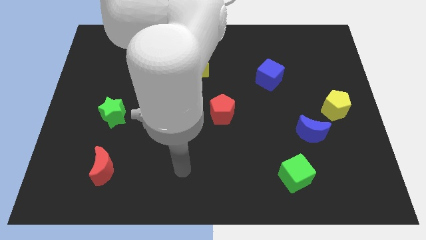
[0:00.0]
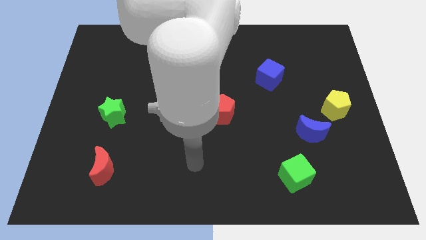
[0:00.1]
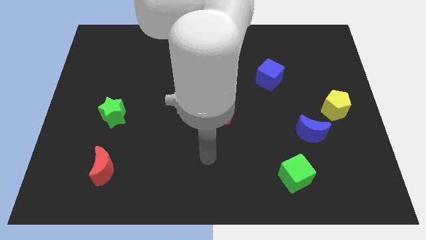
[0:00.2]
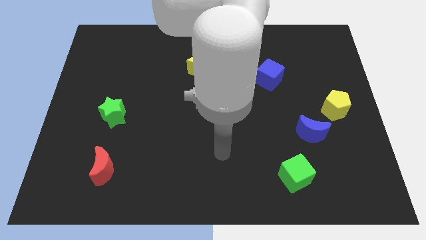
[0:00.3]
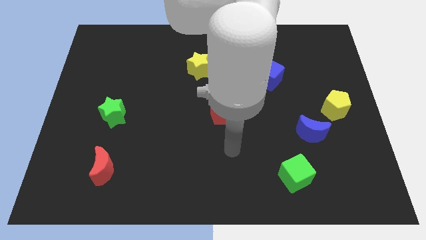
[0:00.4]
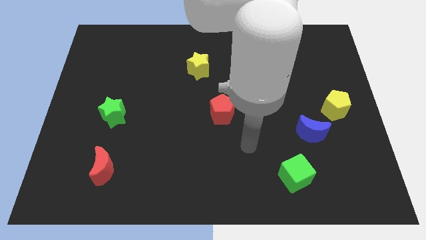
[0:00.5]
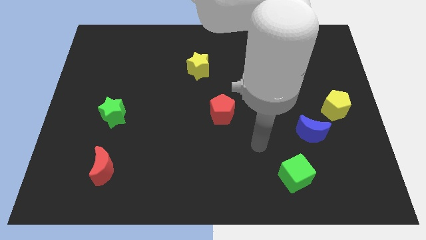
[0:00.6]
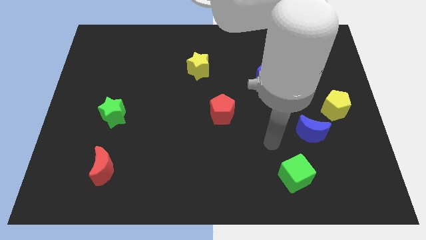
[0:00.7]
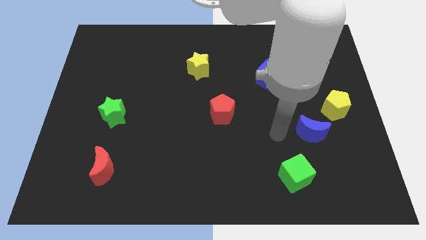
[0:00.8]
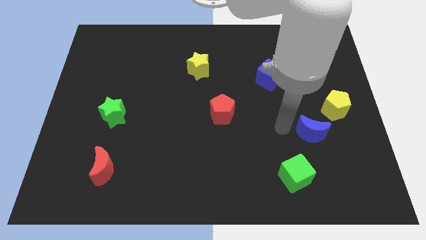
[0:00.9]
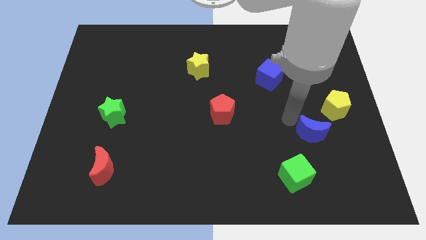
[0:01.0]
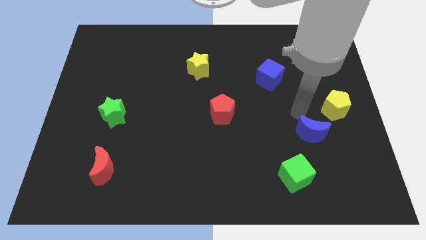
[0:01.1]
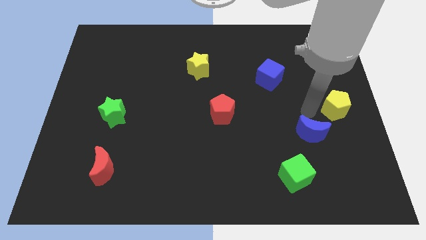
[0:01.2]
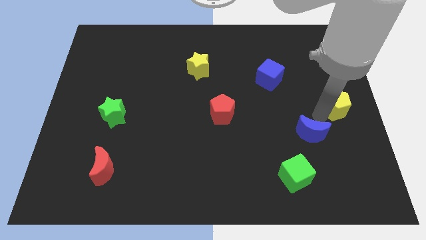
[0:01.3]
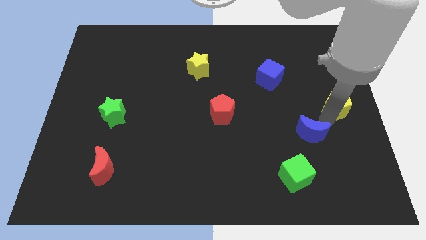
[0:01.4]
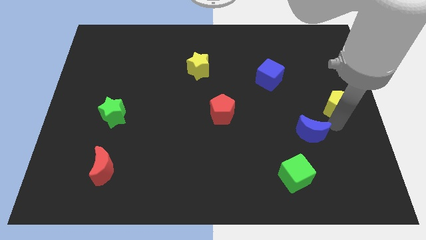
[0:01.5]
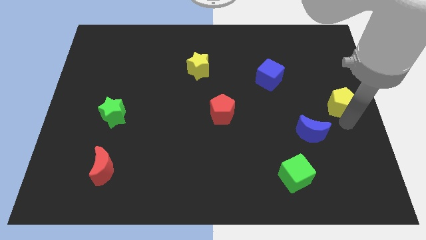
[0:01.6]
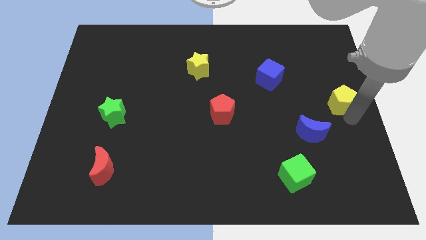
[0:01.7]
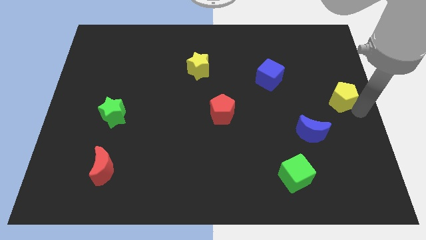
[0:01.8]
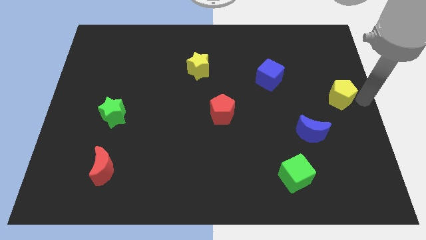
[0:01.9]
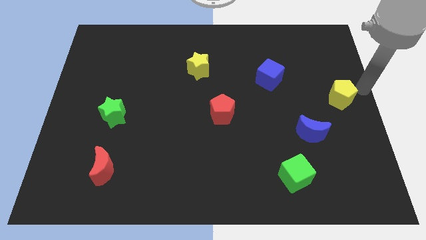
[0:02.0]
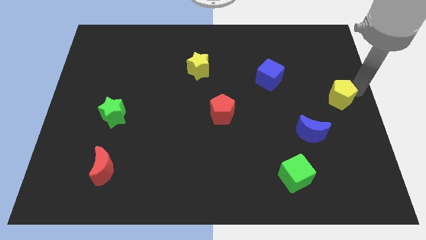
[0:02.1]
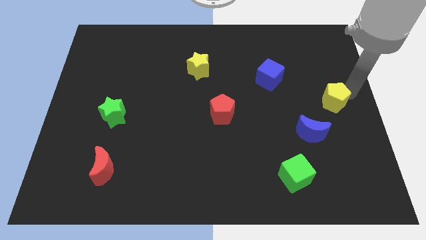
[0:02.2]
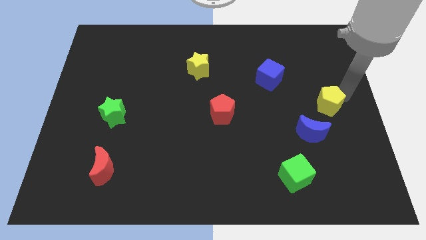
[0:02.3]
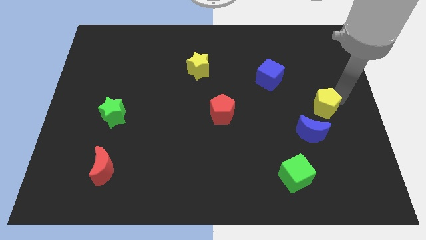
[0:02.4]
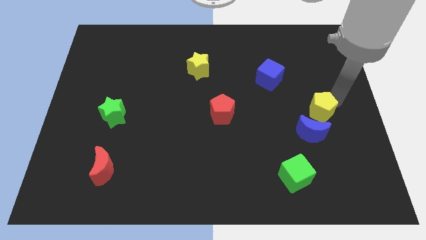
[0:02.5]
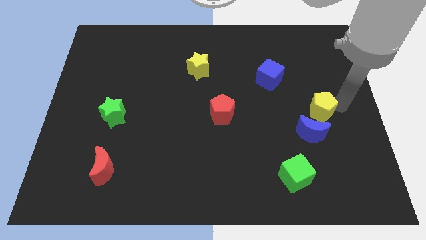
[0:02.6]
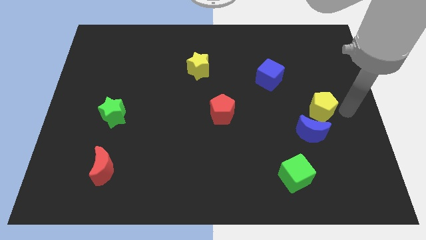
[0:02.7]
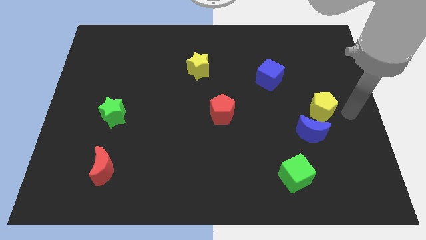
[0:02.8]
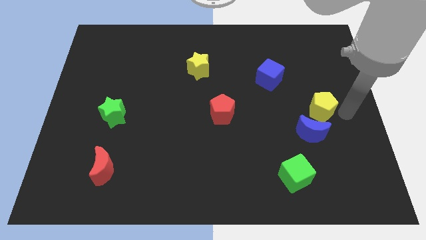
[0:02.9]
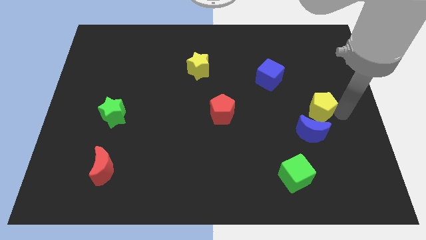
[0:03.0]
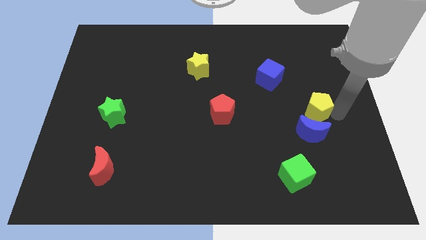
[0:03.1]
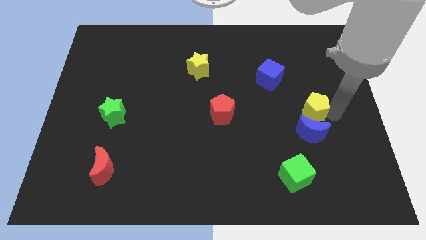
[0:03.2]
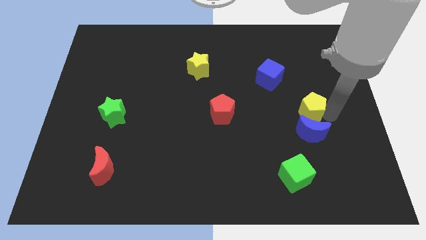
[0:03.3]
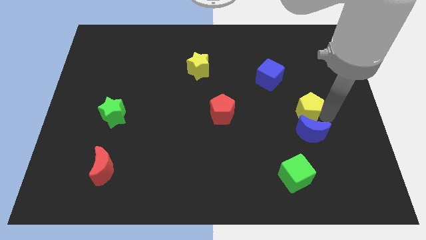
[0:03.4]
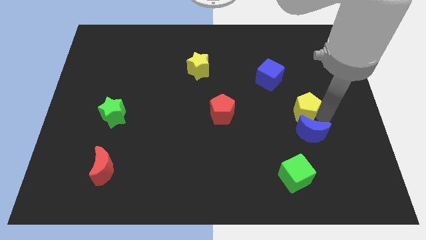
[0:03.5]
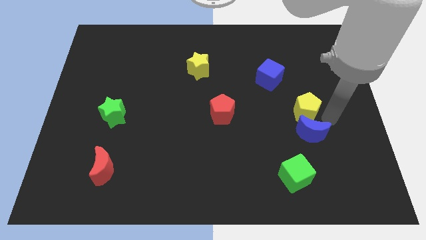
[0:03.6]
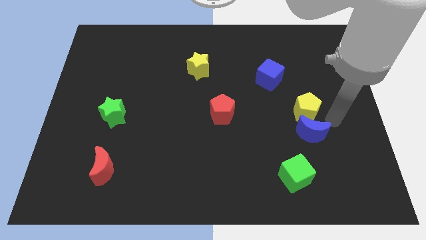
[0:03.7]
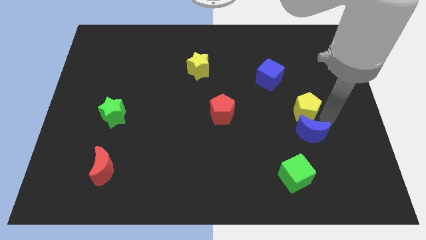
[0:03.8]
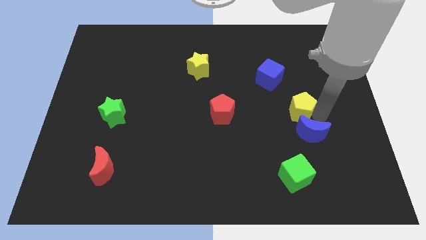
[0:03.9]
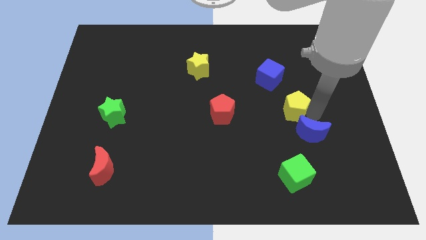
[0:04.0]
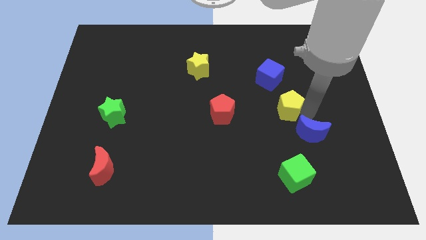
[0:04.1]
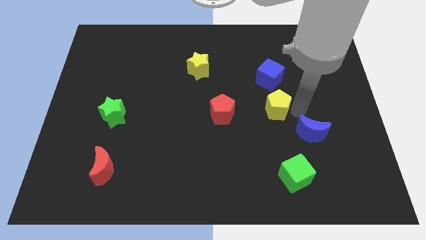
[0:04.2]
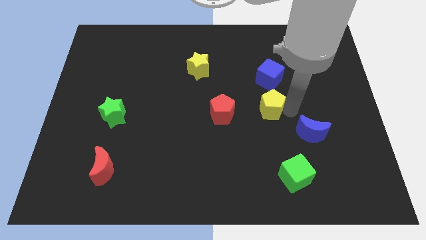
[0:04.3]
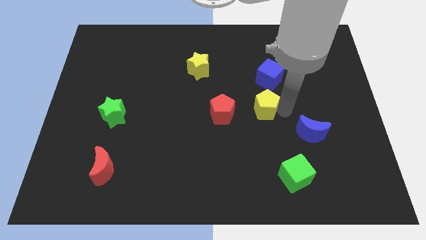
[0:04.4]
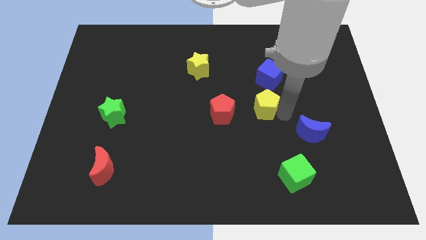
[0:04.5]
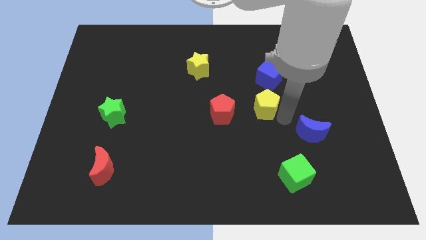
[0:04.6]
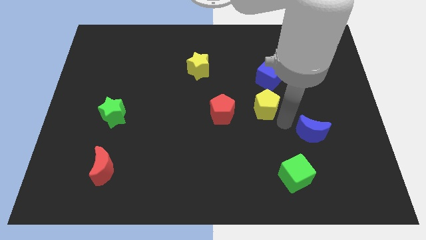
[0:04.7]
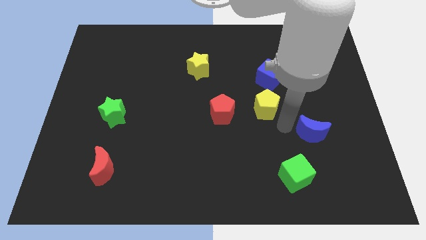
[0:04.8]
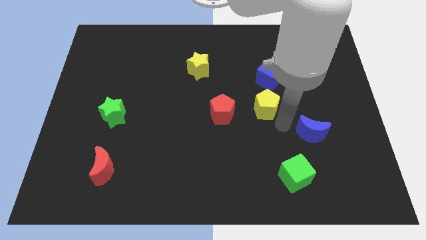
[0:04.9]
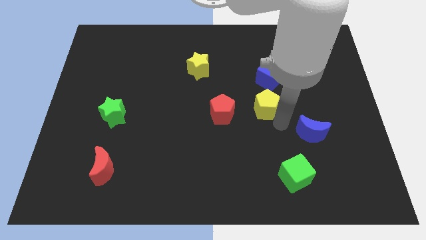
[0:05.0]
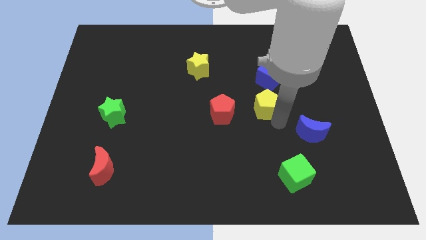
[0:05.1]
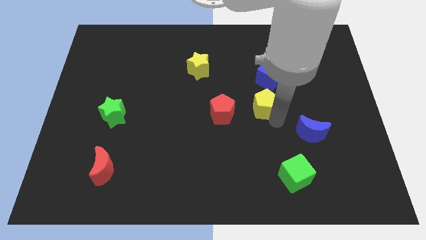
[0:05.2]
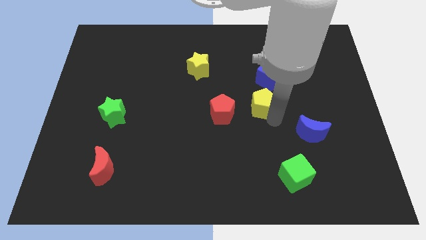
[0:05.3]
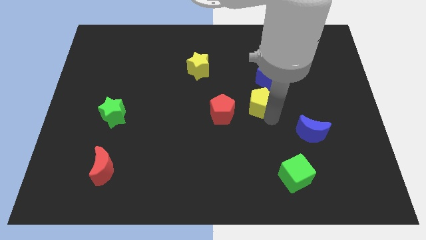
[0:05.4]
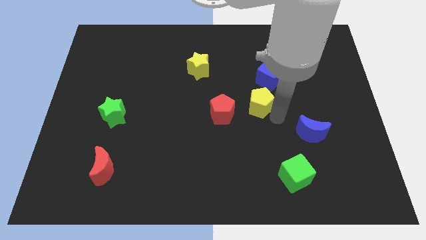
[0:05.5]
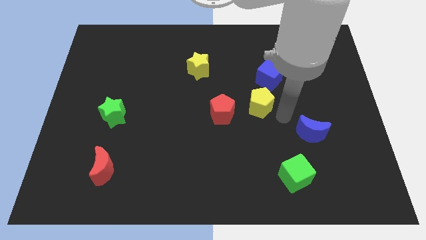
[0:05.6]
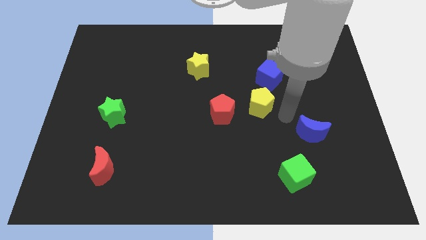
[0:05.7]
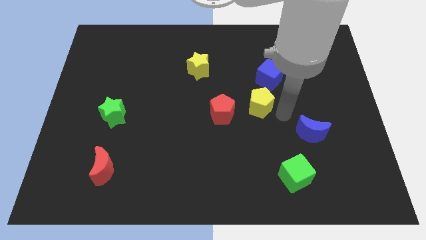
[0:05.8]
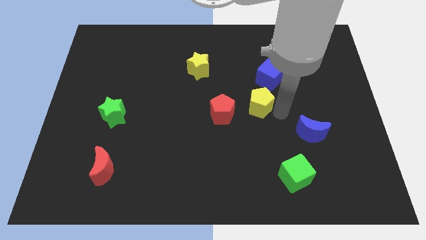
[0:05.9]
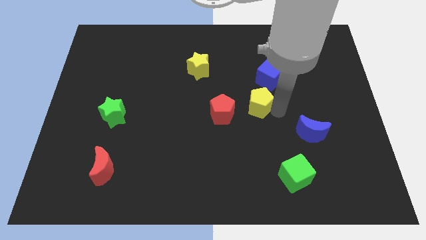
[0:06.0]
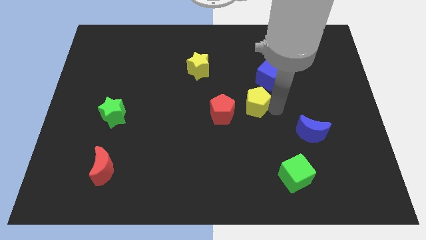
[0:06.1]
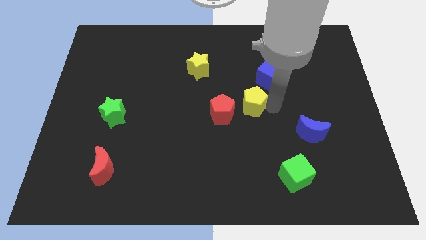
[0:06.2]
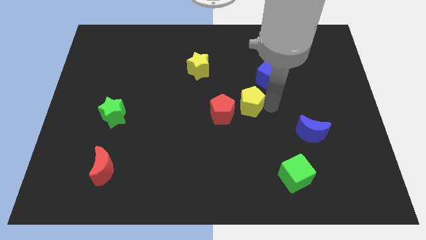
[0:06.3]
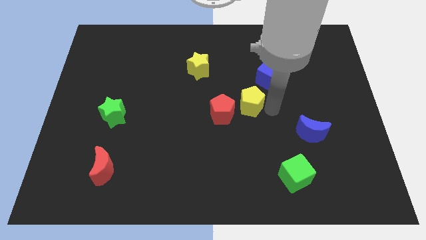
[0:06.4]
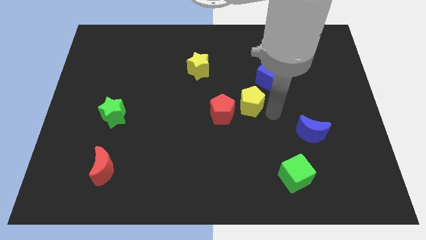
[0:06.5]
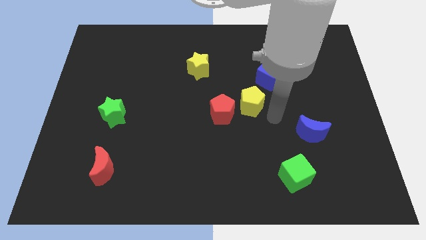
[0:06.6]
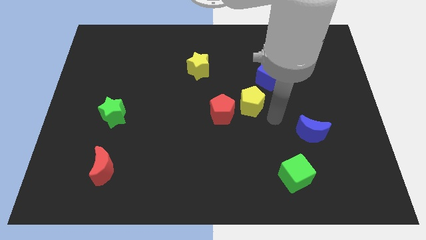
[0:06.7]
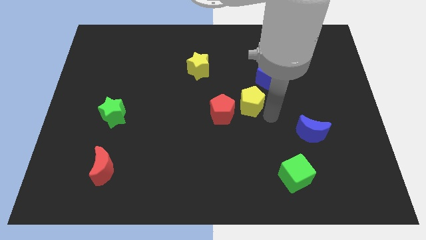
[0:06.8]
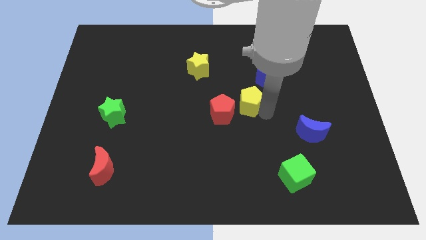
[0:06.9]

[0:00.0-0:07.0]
push the yellow pentagon to the left

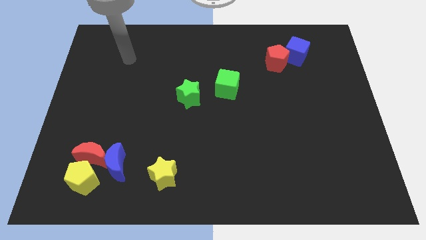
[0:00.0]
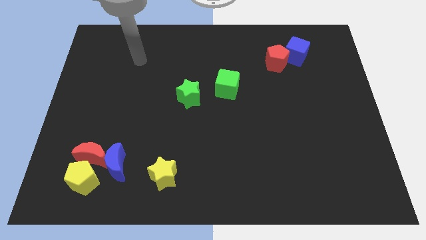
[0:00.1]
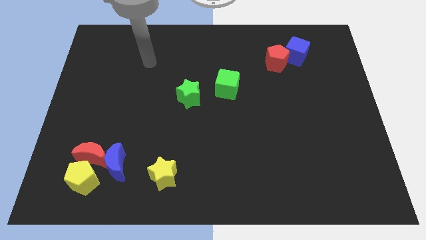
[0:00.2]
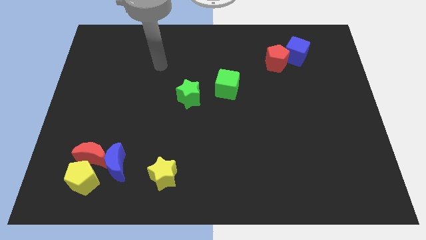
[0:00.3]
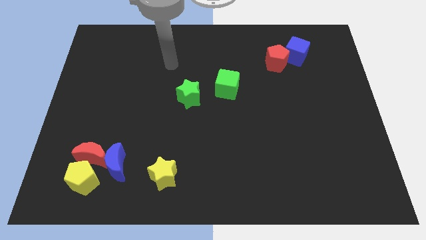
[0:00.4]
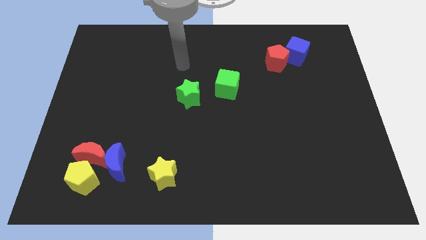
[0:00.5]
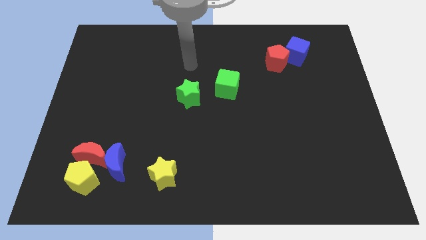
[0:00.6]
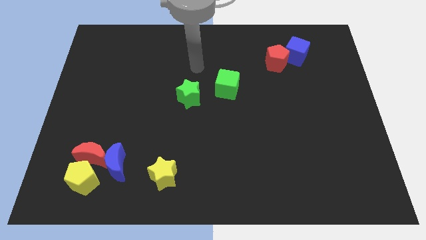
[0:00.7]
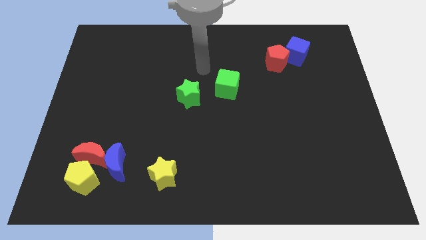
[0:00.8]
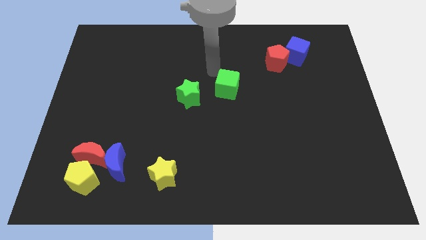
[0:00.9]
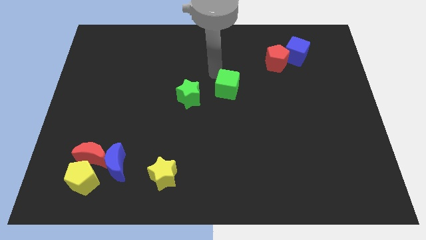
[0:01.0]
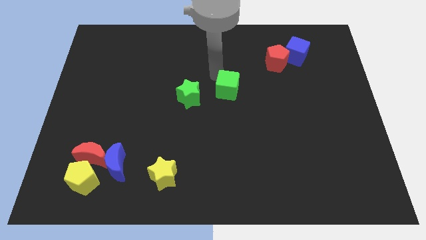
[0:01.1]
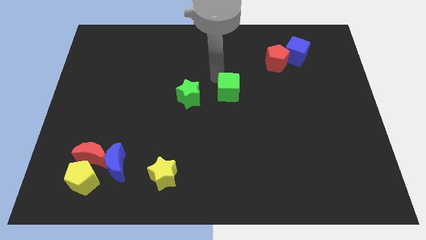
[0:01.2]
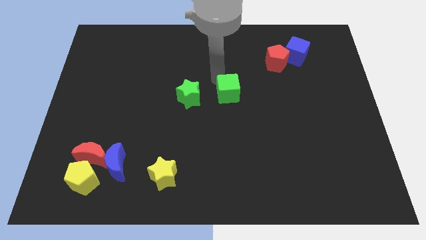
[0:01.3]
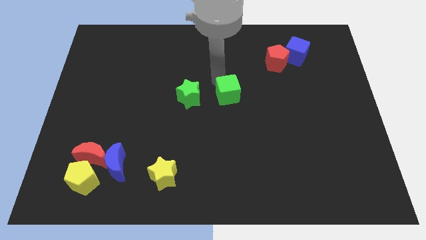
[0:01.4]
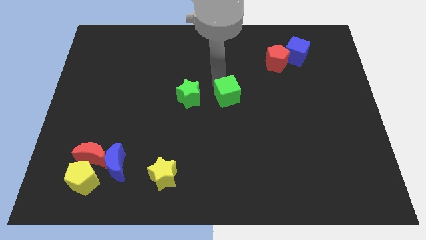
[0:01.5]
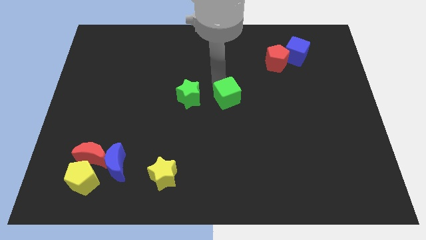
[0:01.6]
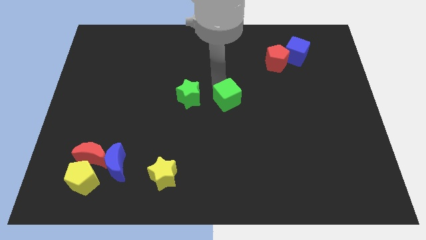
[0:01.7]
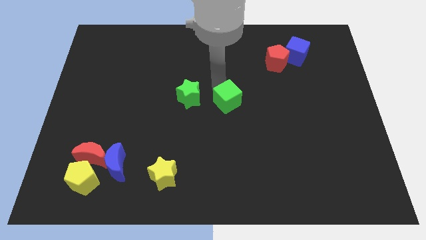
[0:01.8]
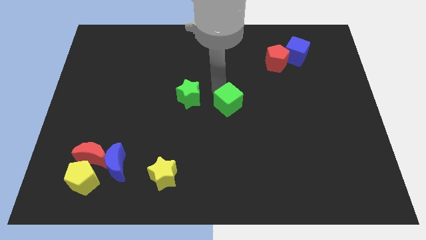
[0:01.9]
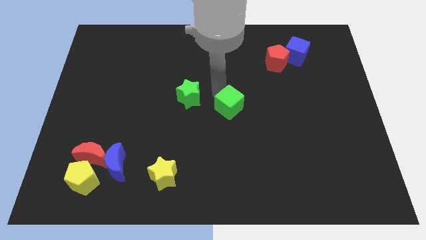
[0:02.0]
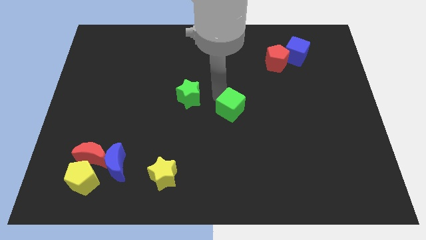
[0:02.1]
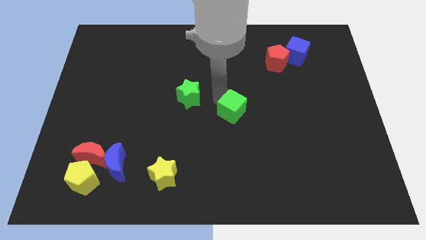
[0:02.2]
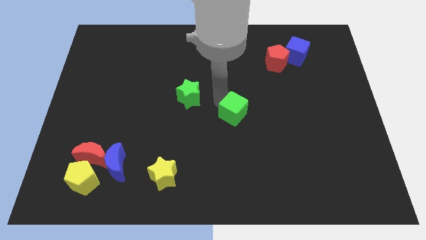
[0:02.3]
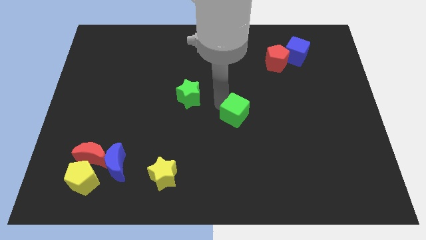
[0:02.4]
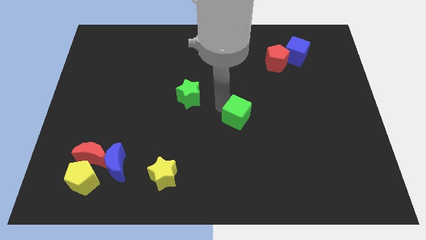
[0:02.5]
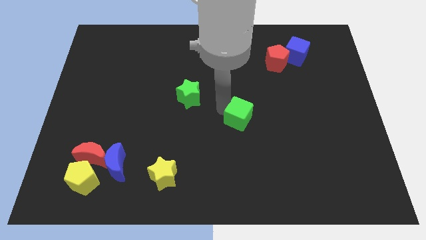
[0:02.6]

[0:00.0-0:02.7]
move the green cube downwards and then to the right a little bit
